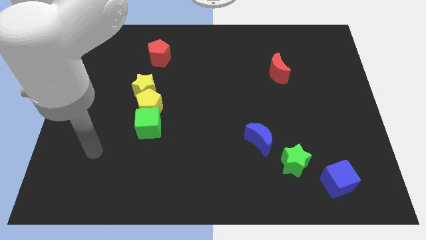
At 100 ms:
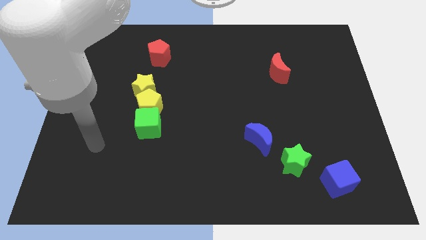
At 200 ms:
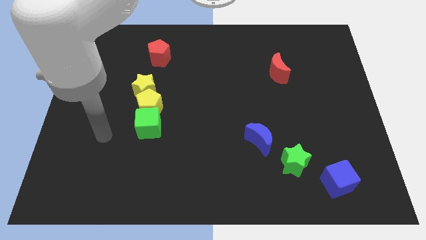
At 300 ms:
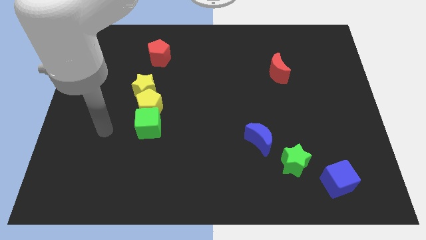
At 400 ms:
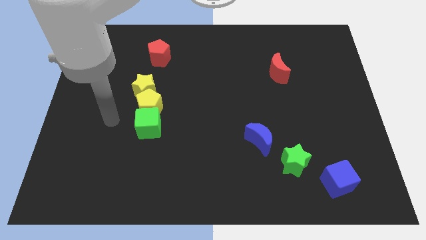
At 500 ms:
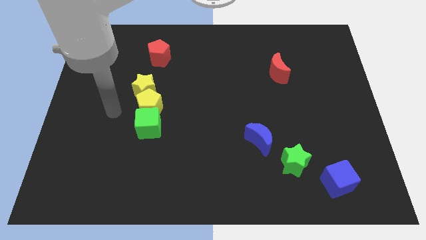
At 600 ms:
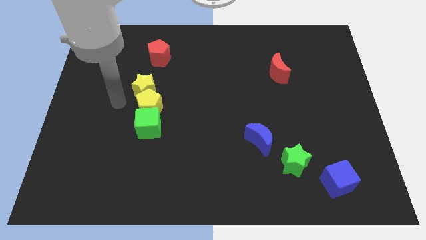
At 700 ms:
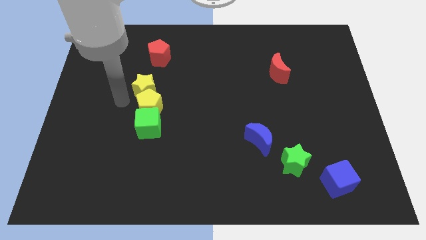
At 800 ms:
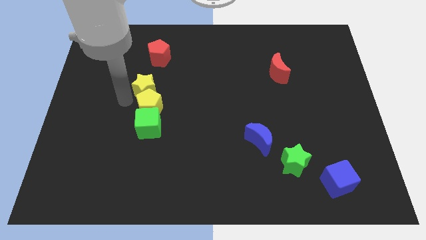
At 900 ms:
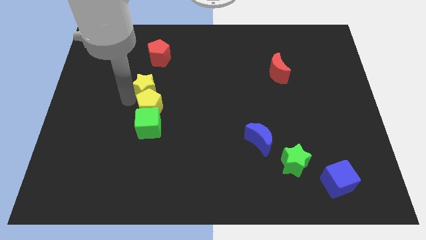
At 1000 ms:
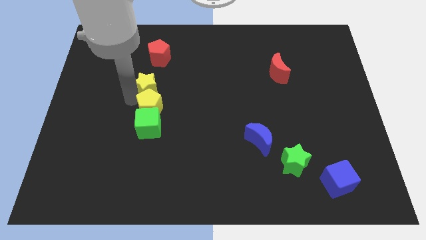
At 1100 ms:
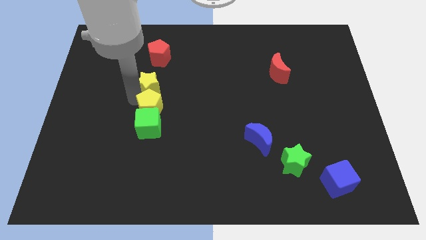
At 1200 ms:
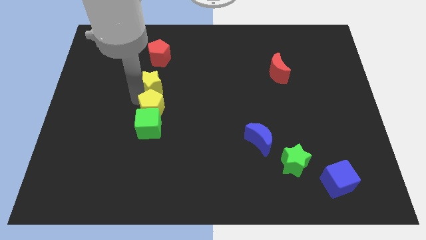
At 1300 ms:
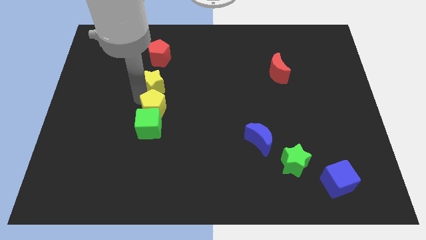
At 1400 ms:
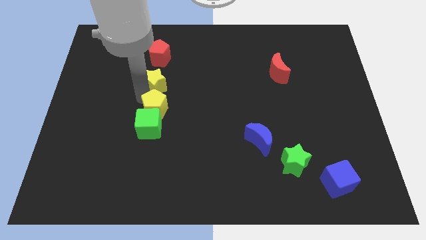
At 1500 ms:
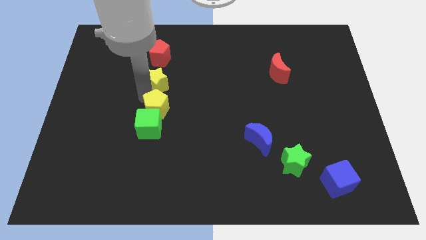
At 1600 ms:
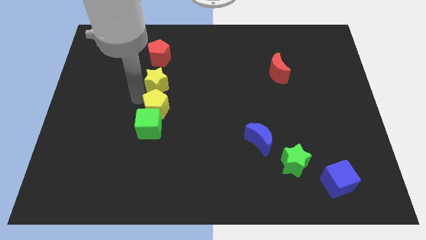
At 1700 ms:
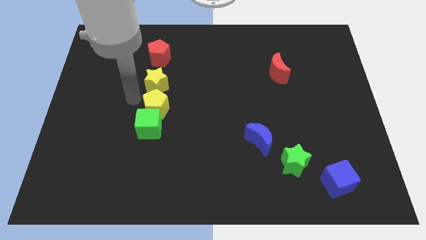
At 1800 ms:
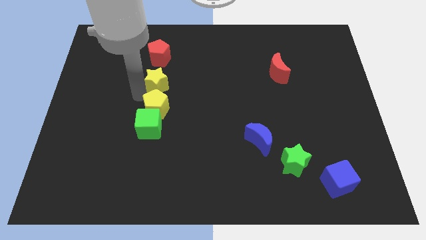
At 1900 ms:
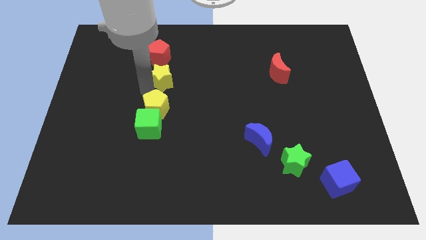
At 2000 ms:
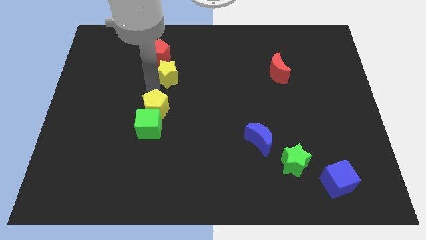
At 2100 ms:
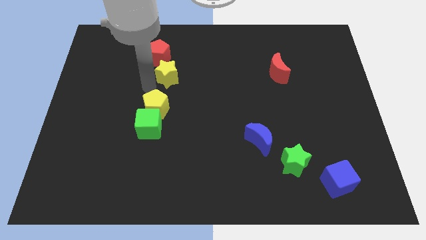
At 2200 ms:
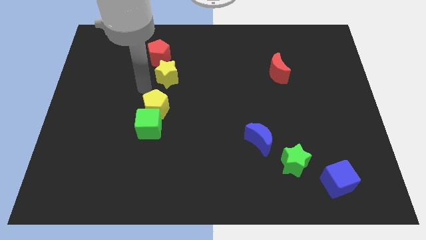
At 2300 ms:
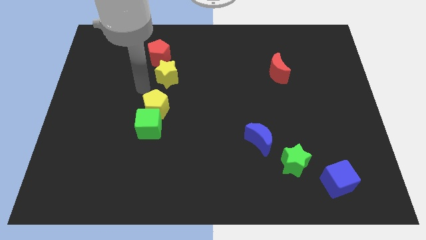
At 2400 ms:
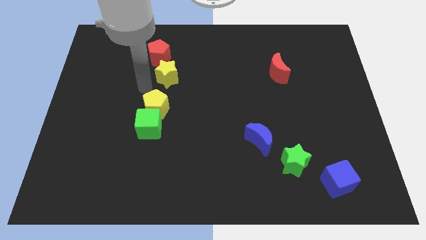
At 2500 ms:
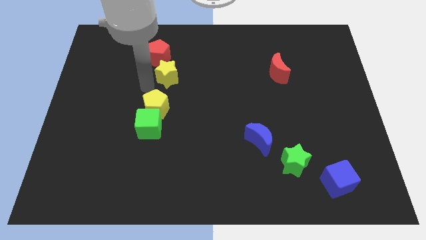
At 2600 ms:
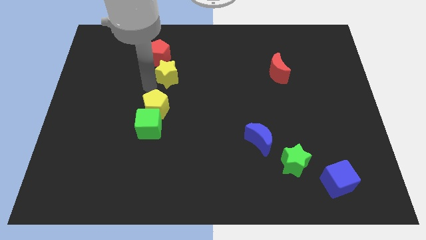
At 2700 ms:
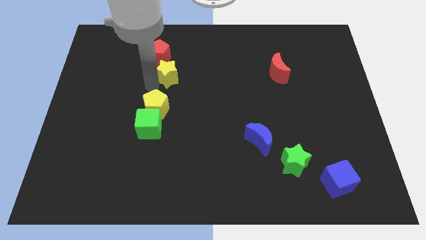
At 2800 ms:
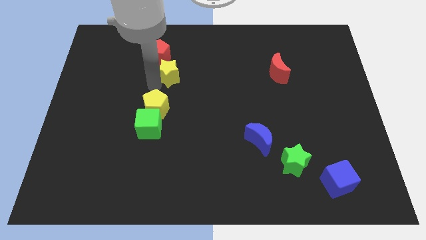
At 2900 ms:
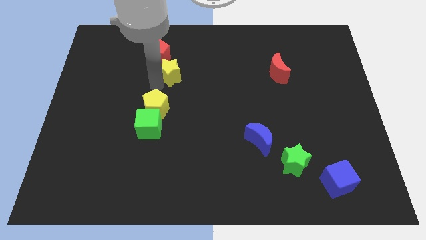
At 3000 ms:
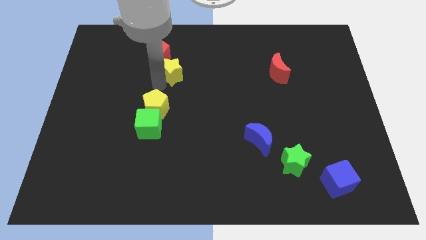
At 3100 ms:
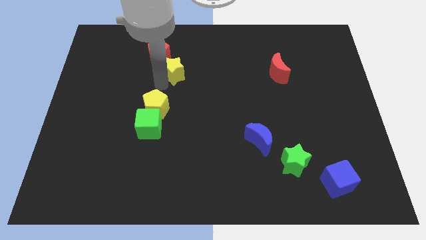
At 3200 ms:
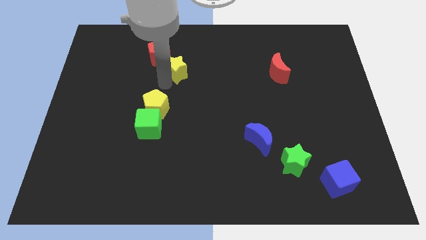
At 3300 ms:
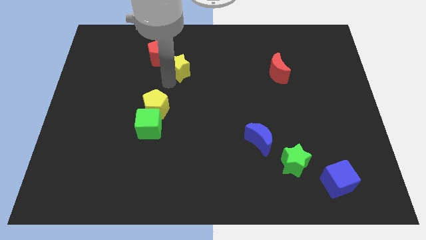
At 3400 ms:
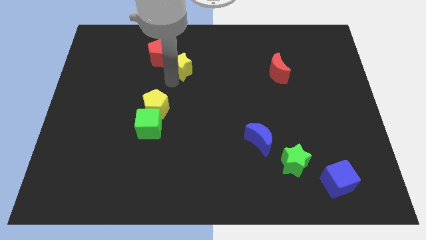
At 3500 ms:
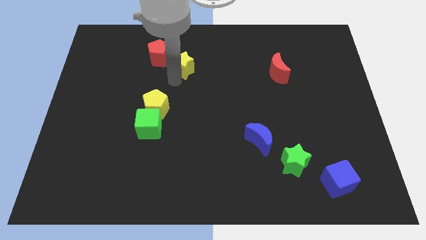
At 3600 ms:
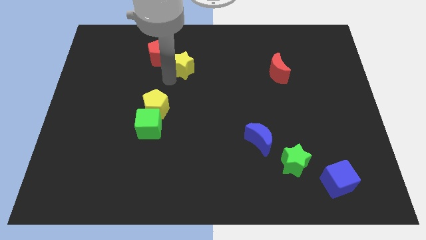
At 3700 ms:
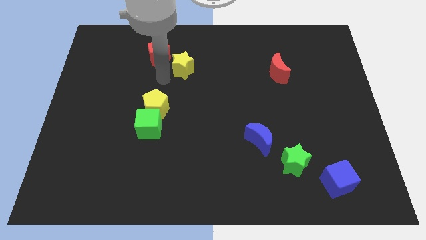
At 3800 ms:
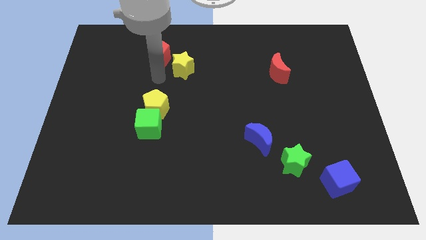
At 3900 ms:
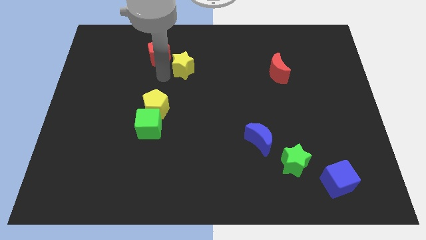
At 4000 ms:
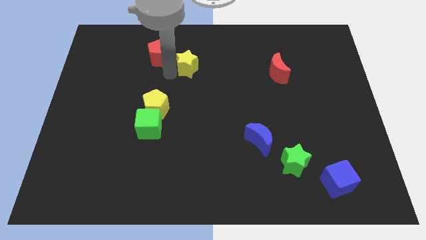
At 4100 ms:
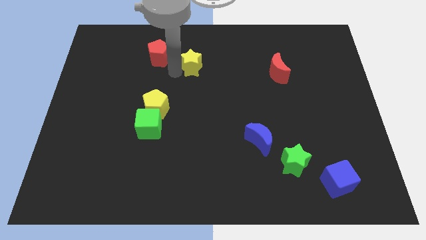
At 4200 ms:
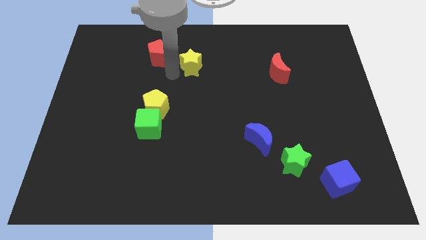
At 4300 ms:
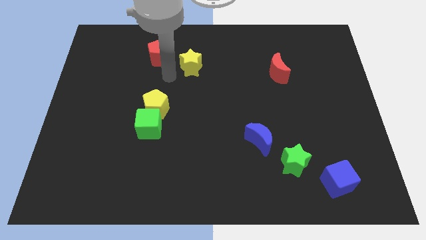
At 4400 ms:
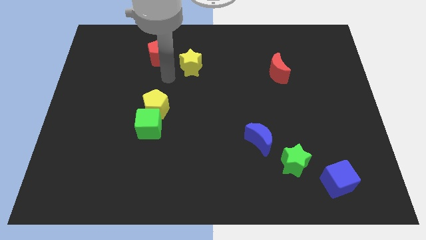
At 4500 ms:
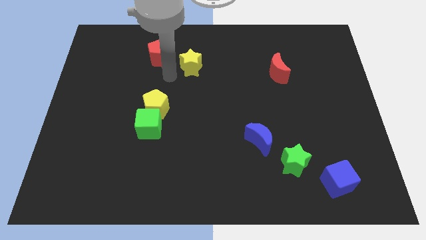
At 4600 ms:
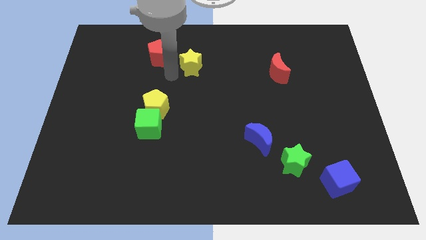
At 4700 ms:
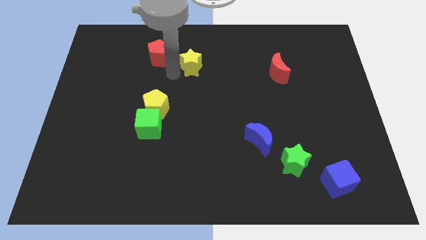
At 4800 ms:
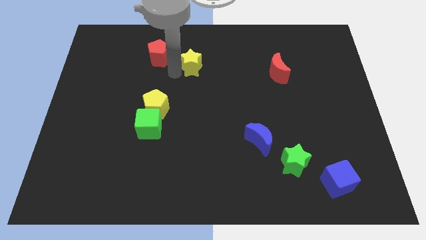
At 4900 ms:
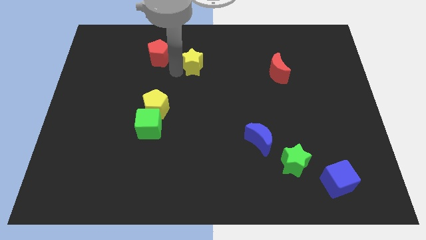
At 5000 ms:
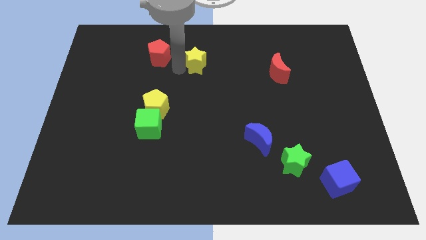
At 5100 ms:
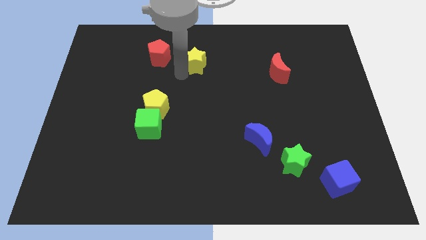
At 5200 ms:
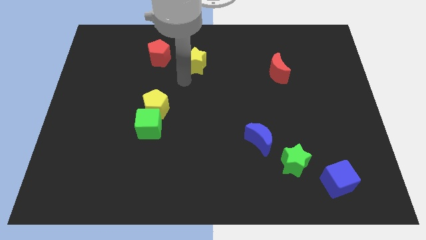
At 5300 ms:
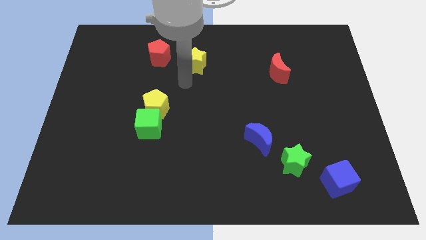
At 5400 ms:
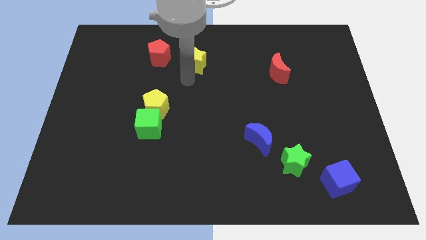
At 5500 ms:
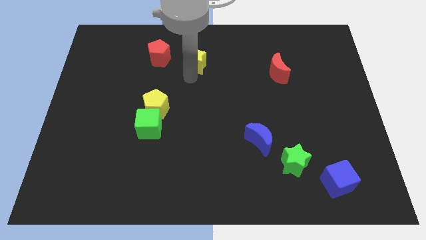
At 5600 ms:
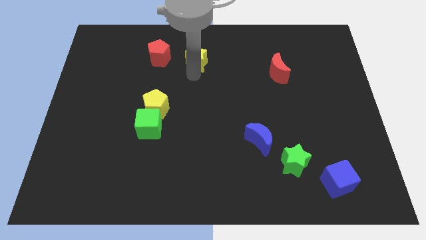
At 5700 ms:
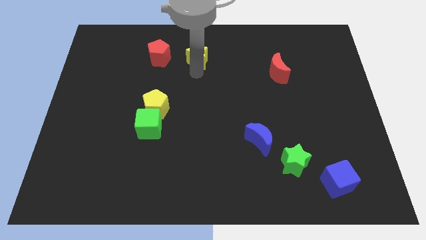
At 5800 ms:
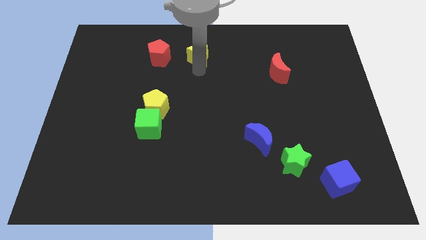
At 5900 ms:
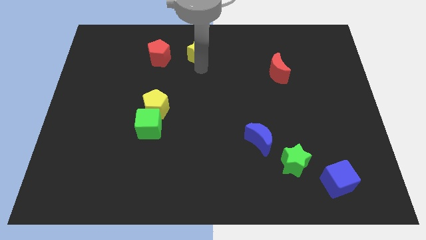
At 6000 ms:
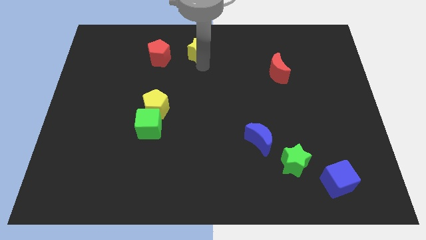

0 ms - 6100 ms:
slide the yellow star to the top side
